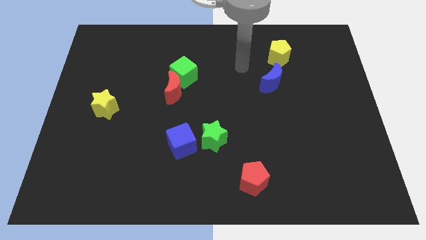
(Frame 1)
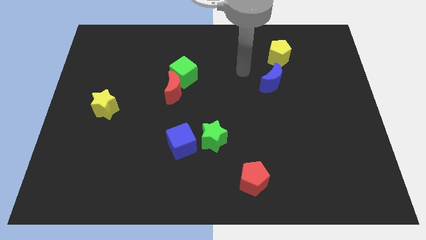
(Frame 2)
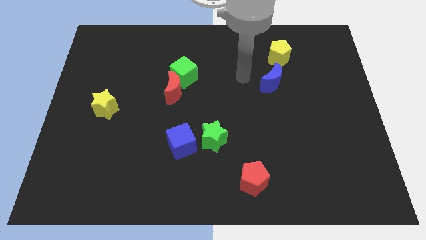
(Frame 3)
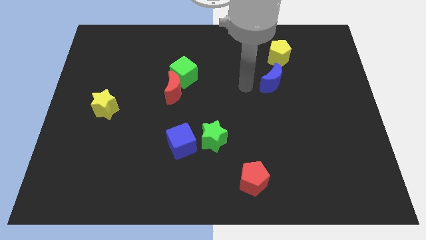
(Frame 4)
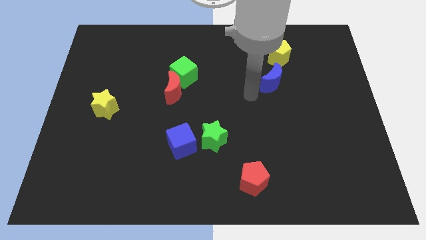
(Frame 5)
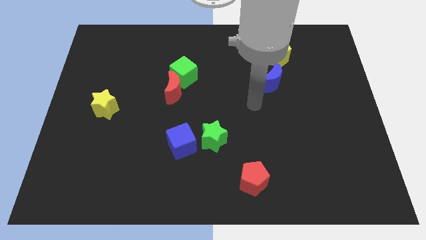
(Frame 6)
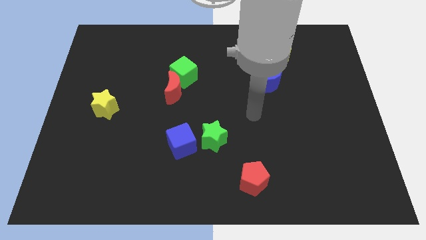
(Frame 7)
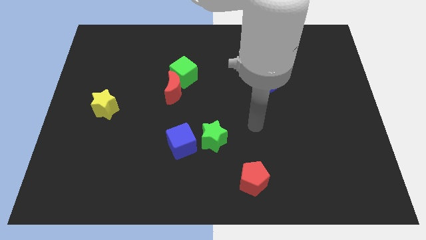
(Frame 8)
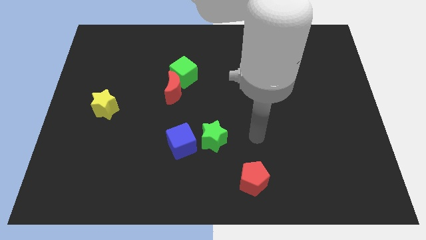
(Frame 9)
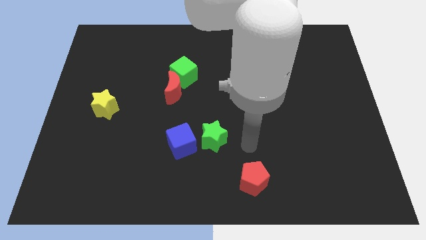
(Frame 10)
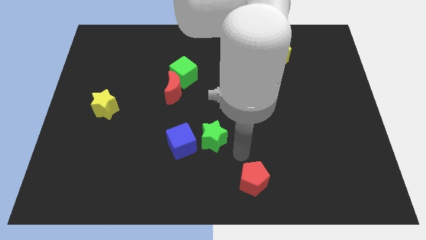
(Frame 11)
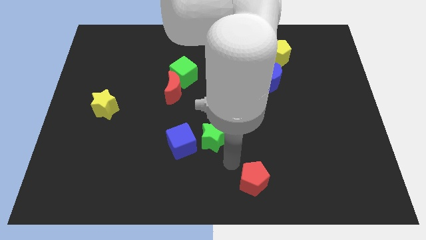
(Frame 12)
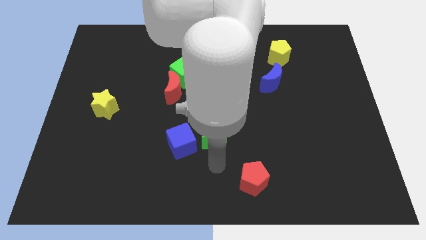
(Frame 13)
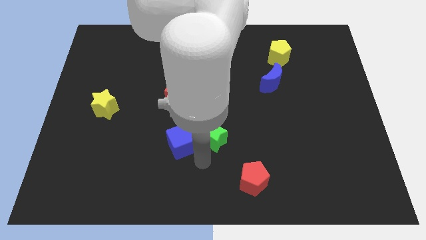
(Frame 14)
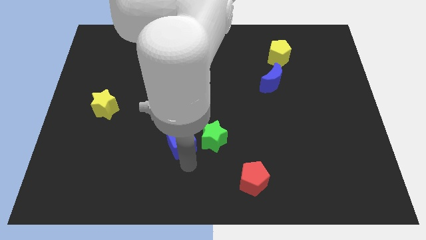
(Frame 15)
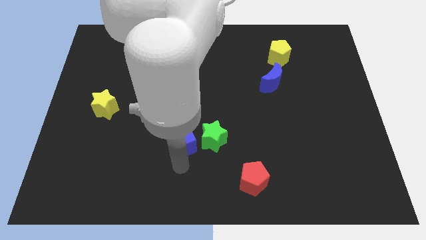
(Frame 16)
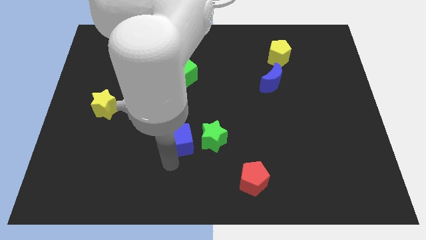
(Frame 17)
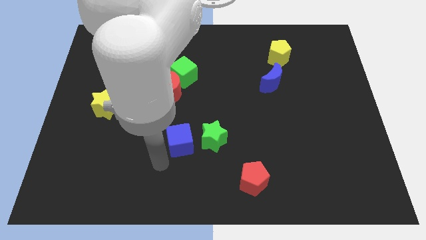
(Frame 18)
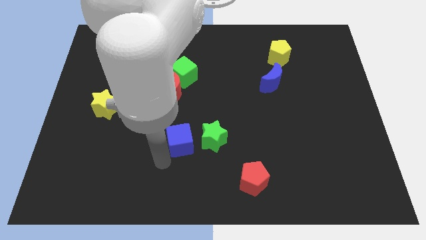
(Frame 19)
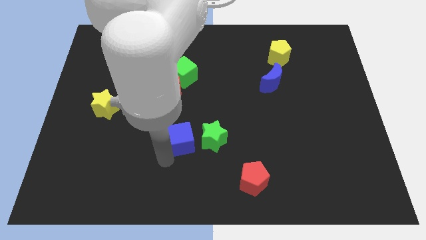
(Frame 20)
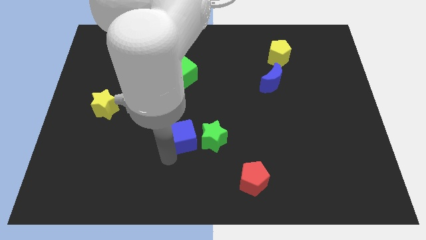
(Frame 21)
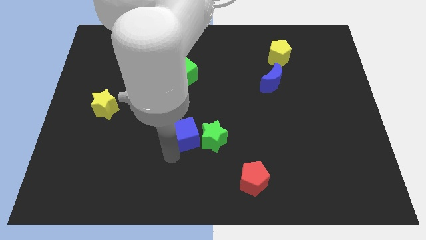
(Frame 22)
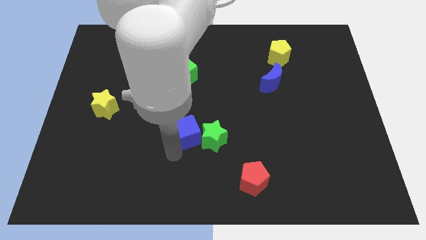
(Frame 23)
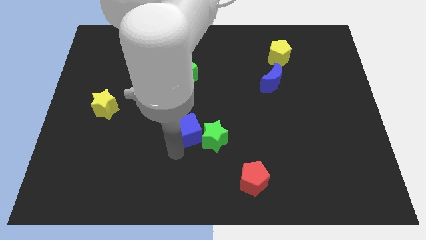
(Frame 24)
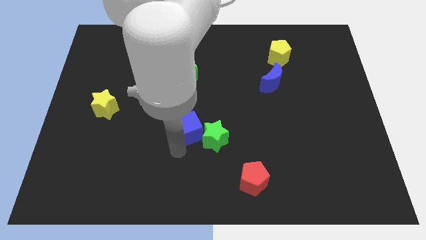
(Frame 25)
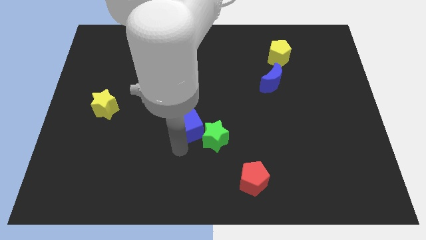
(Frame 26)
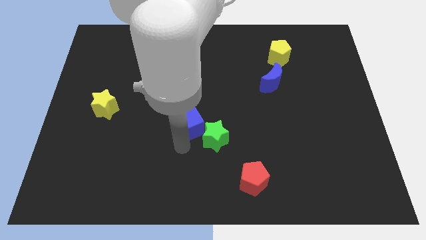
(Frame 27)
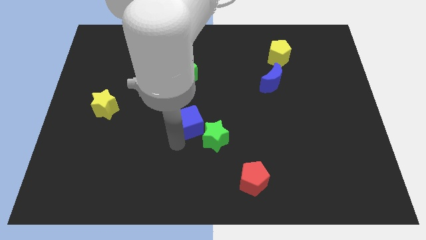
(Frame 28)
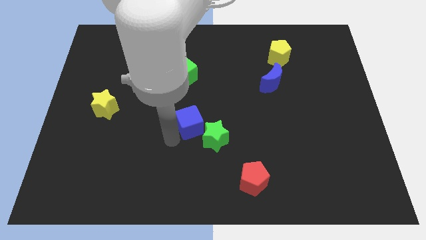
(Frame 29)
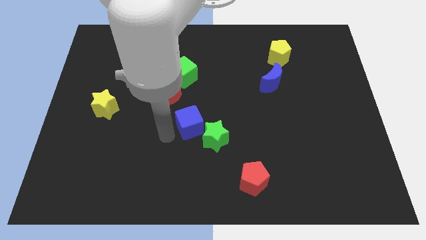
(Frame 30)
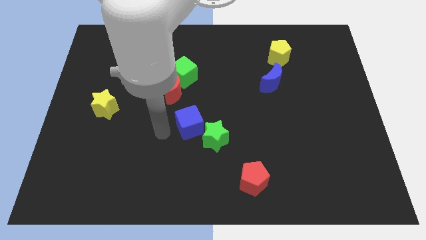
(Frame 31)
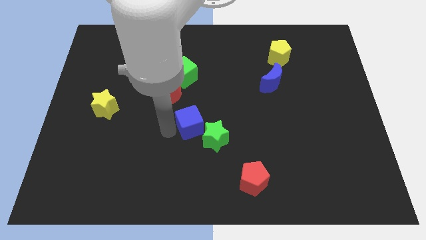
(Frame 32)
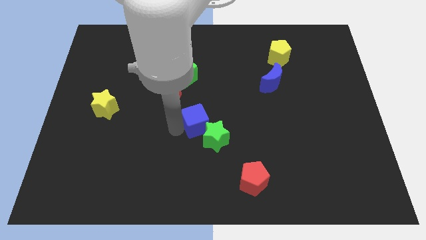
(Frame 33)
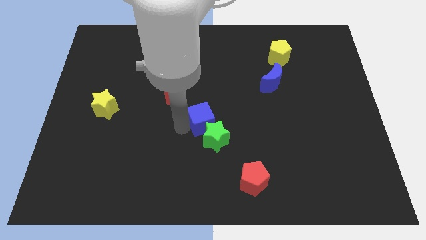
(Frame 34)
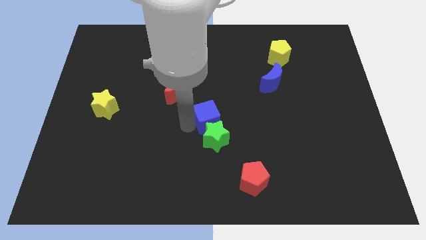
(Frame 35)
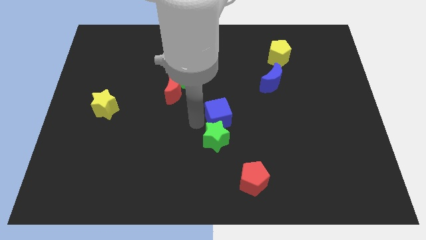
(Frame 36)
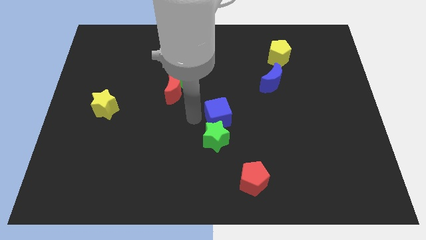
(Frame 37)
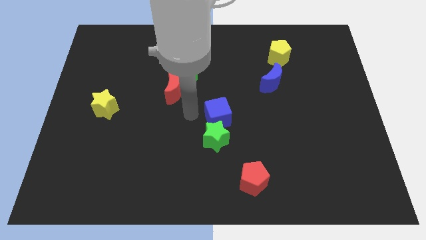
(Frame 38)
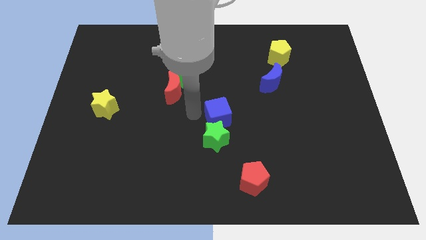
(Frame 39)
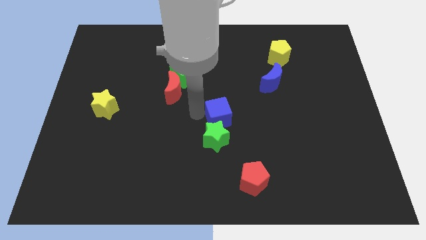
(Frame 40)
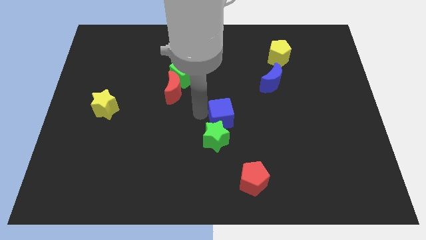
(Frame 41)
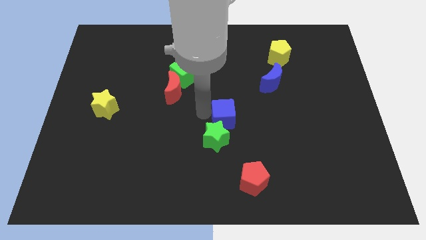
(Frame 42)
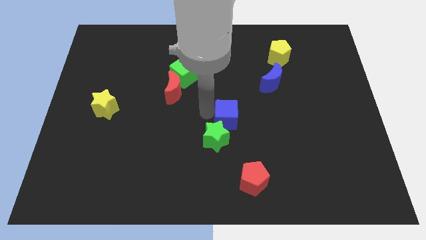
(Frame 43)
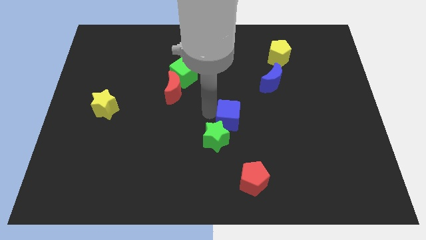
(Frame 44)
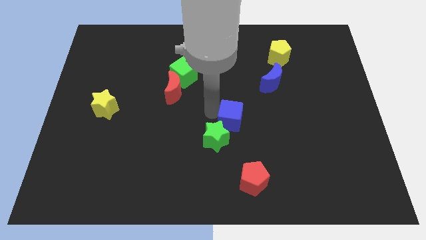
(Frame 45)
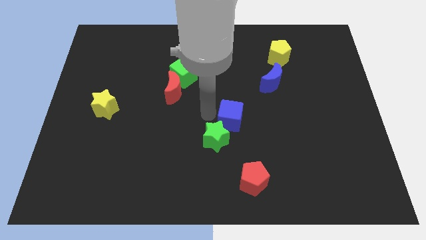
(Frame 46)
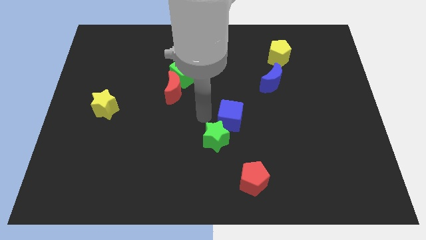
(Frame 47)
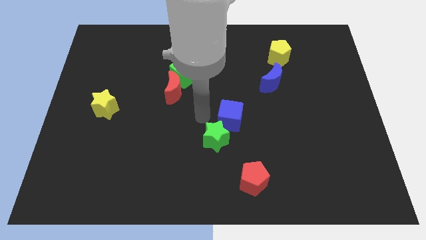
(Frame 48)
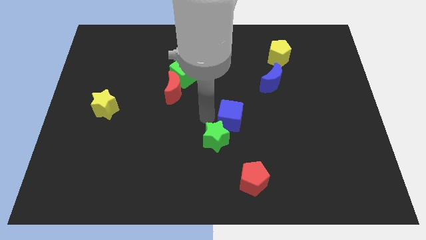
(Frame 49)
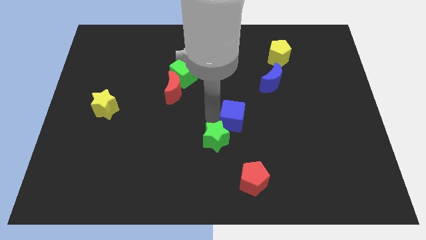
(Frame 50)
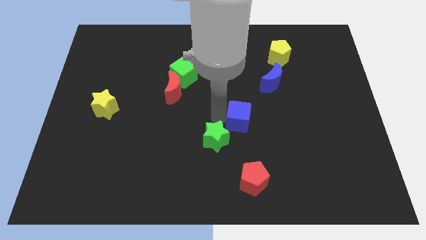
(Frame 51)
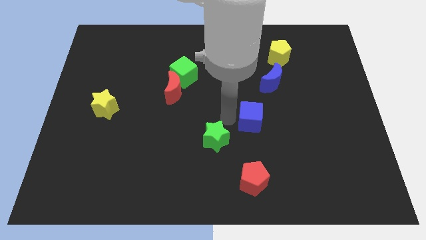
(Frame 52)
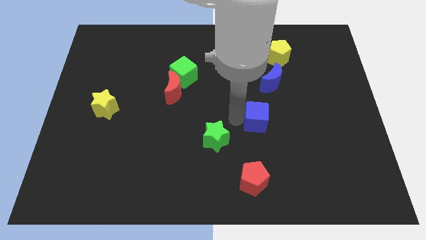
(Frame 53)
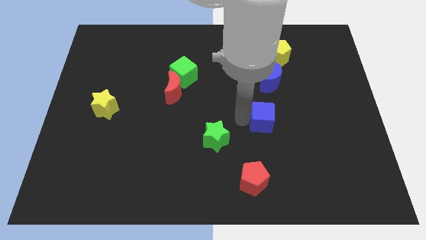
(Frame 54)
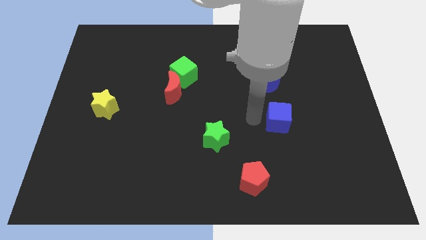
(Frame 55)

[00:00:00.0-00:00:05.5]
push the blue cube right

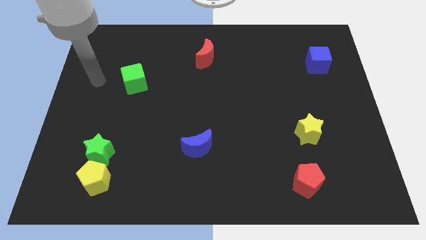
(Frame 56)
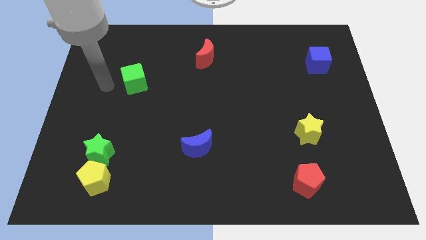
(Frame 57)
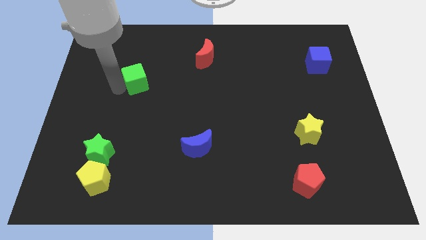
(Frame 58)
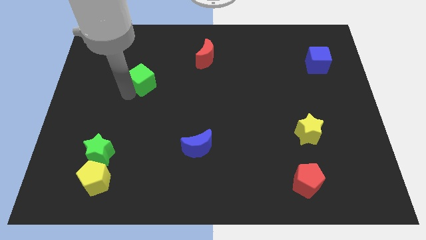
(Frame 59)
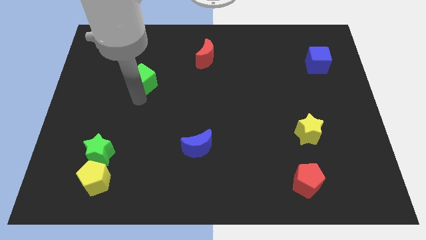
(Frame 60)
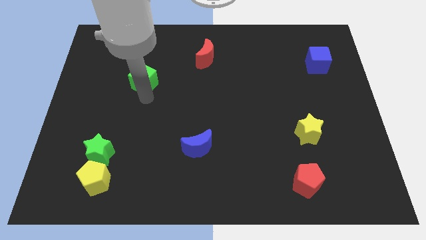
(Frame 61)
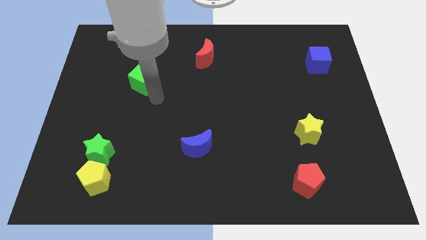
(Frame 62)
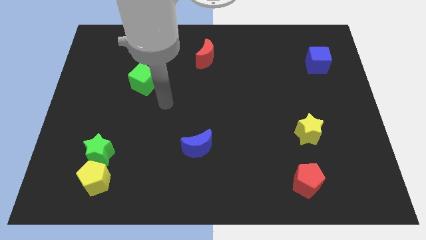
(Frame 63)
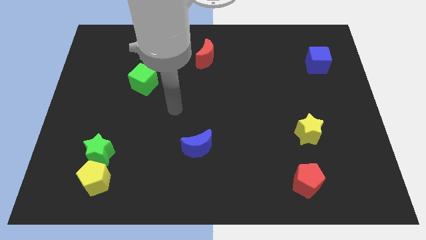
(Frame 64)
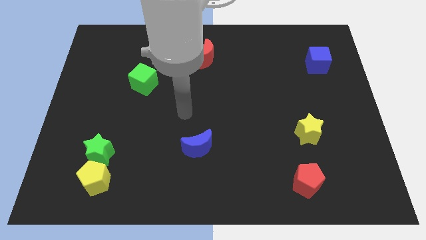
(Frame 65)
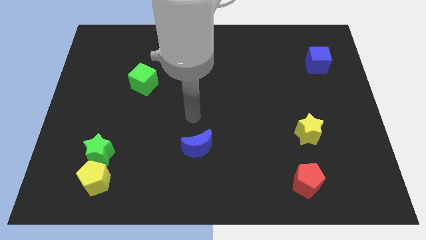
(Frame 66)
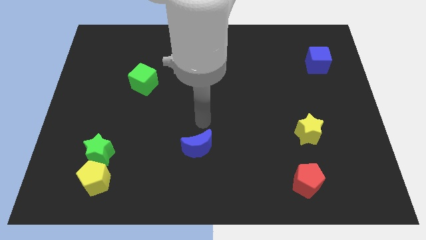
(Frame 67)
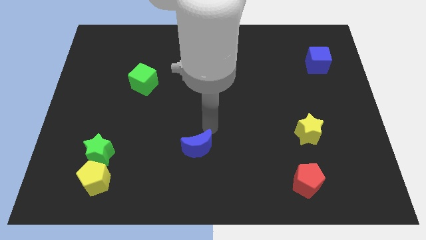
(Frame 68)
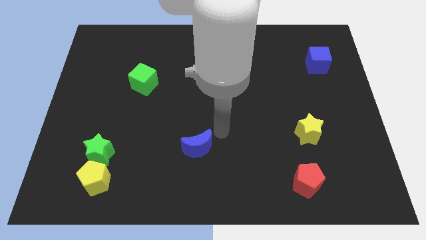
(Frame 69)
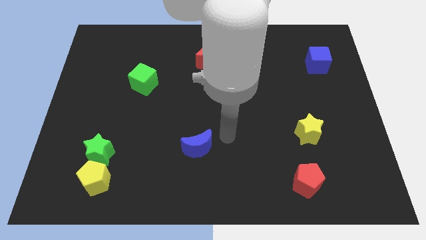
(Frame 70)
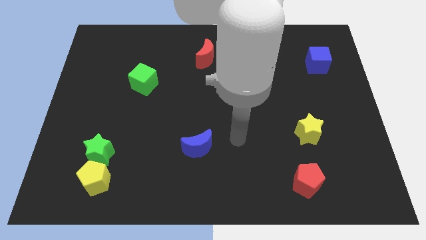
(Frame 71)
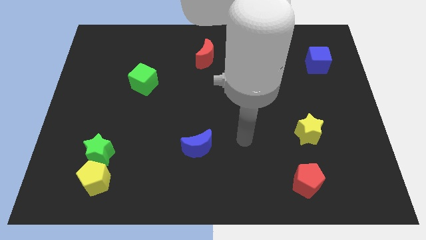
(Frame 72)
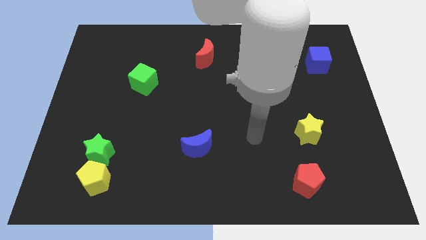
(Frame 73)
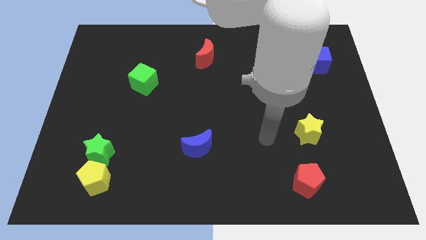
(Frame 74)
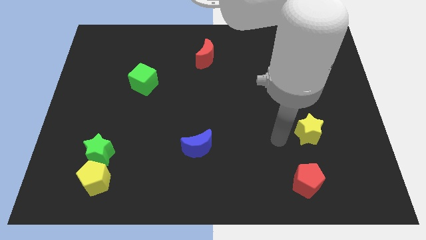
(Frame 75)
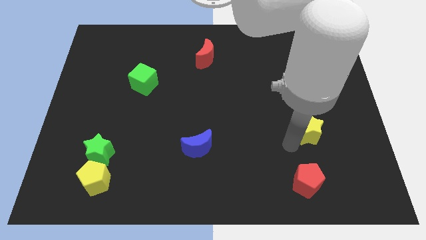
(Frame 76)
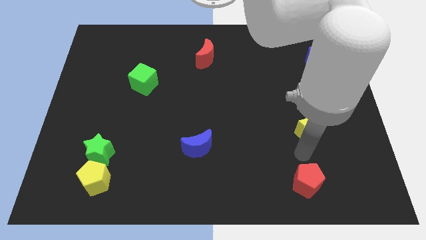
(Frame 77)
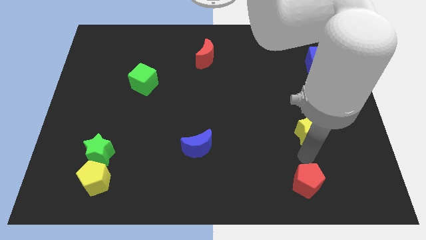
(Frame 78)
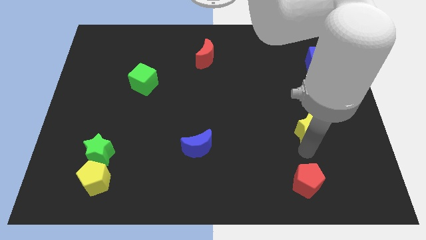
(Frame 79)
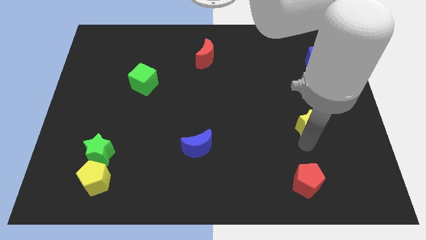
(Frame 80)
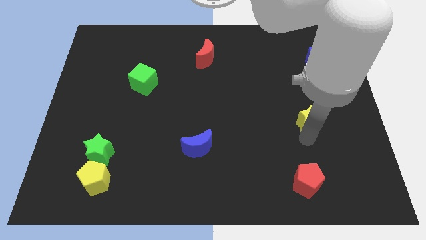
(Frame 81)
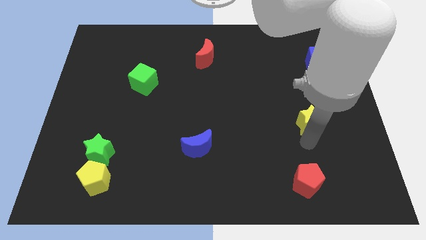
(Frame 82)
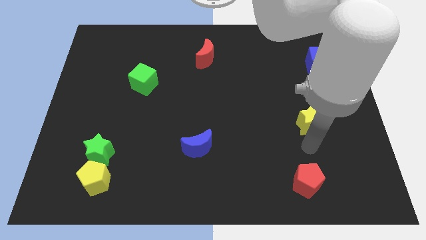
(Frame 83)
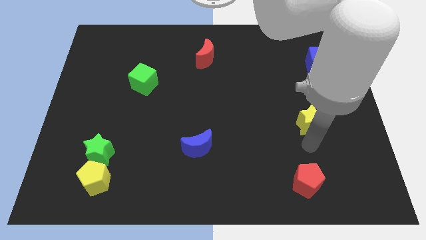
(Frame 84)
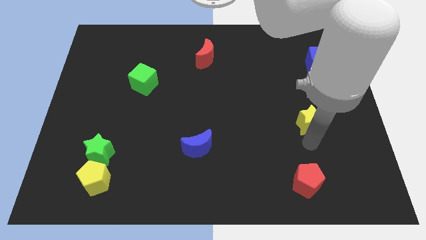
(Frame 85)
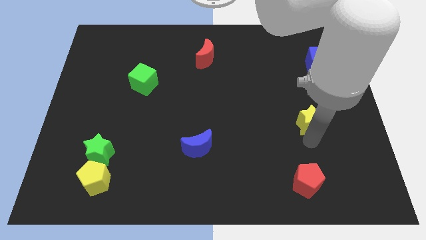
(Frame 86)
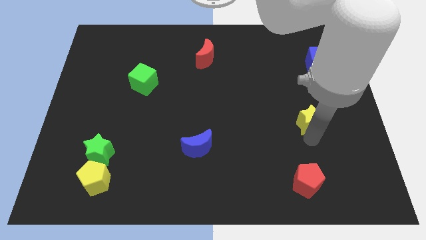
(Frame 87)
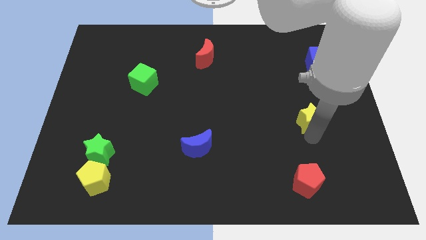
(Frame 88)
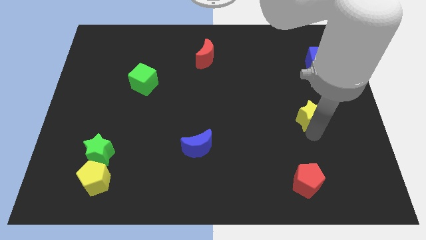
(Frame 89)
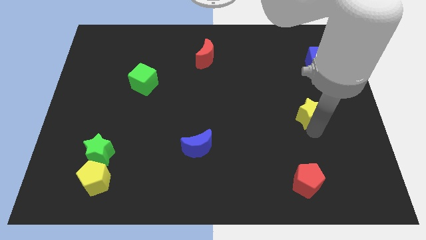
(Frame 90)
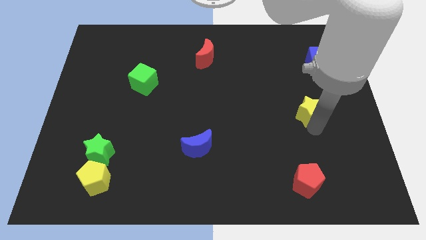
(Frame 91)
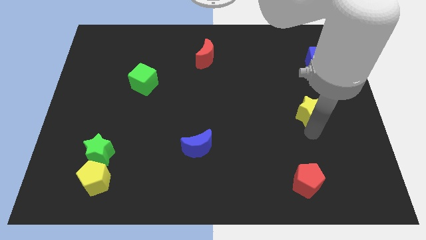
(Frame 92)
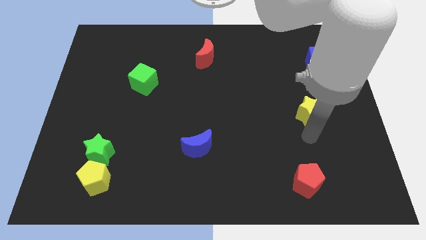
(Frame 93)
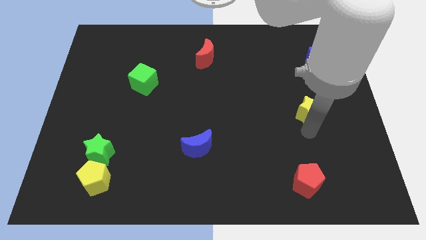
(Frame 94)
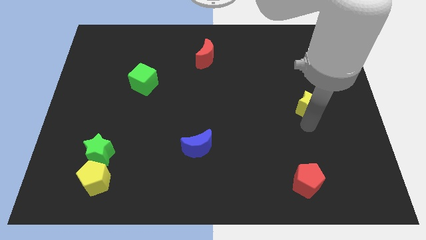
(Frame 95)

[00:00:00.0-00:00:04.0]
push the yellow star somewhat up
